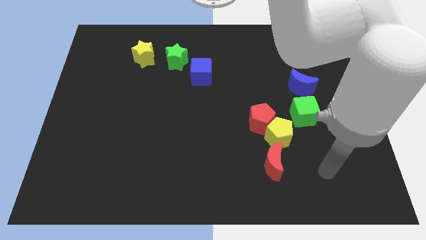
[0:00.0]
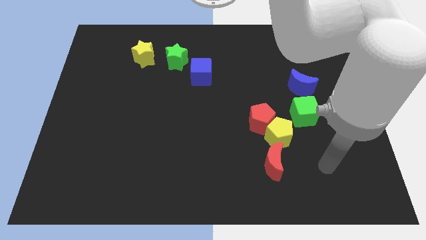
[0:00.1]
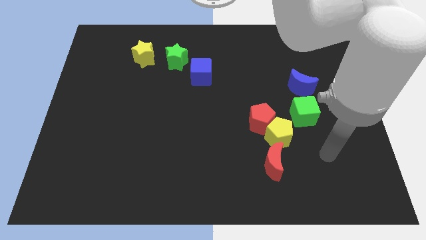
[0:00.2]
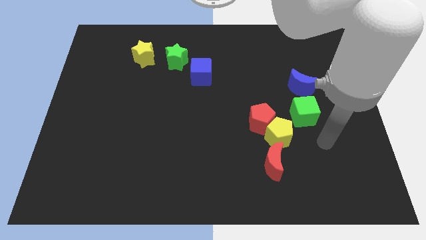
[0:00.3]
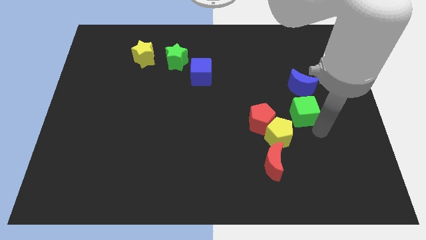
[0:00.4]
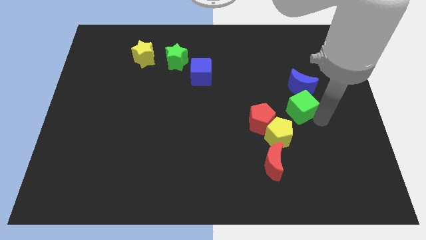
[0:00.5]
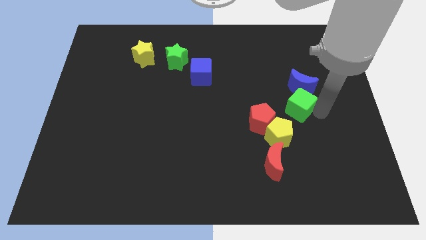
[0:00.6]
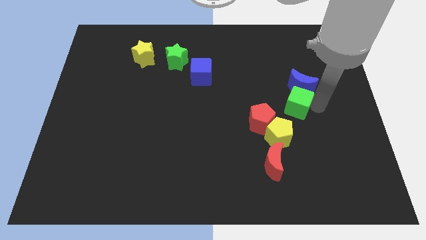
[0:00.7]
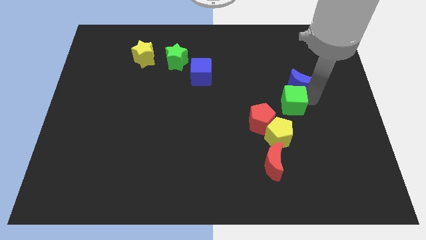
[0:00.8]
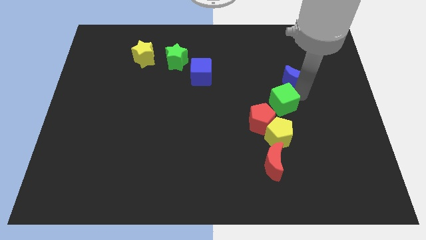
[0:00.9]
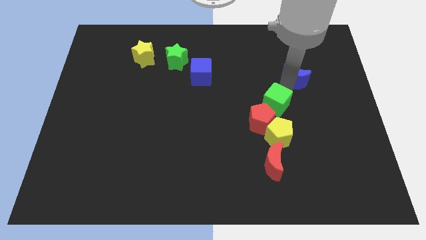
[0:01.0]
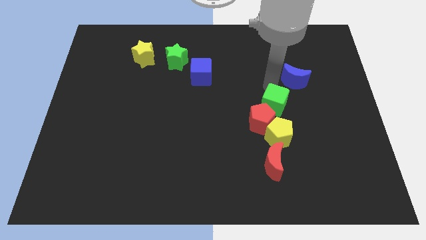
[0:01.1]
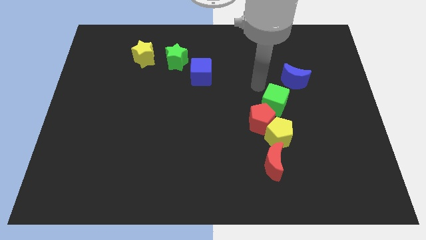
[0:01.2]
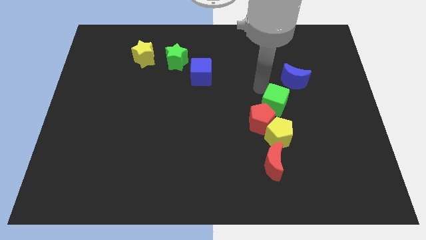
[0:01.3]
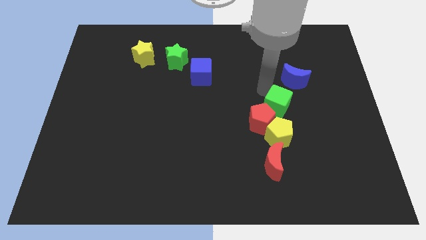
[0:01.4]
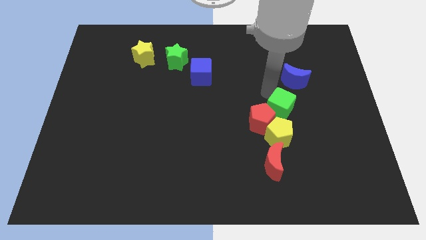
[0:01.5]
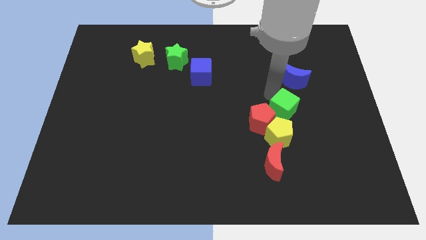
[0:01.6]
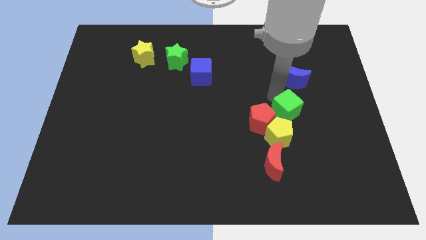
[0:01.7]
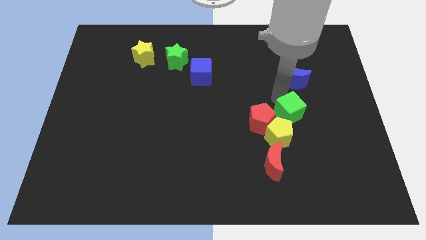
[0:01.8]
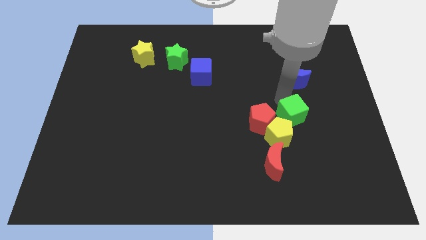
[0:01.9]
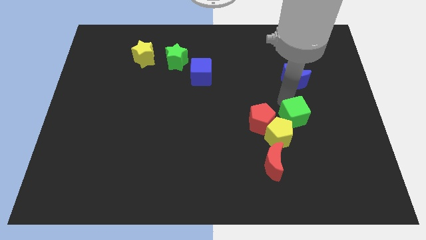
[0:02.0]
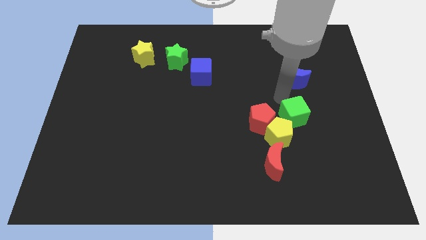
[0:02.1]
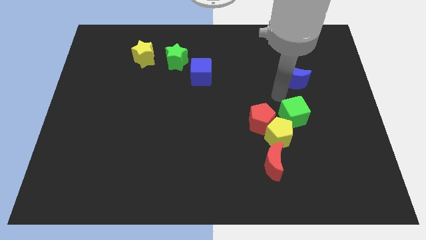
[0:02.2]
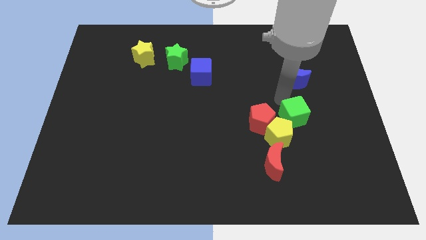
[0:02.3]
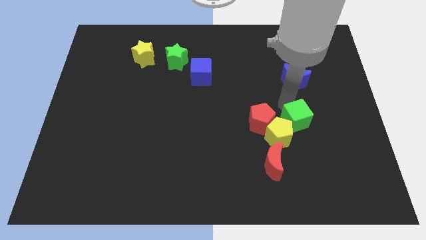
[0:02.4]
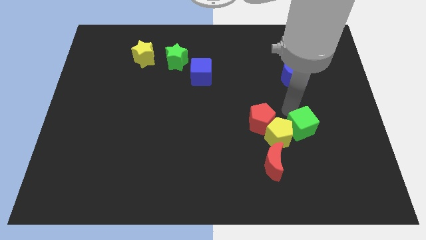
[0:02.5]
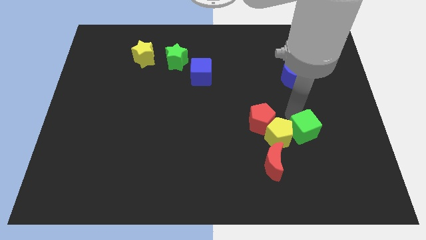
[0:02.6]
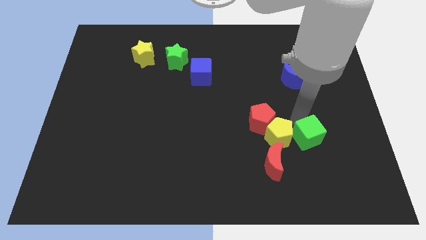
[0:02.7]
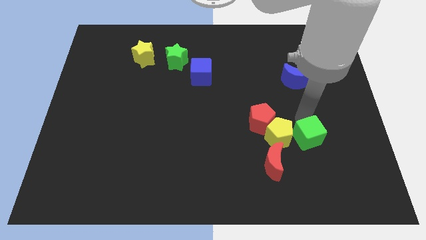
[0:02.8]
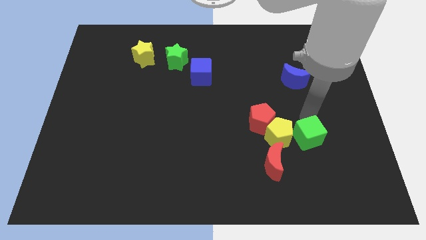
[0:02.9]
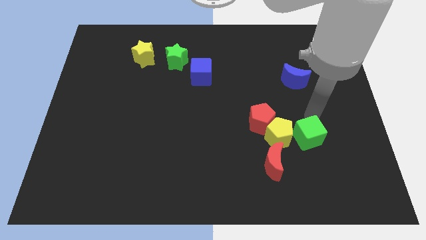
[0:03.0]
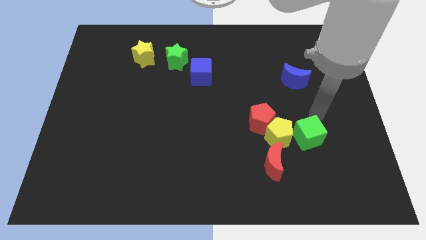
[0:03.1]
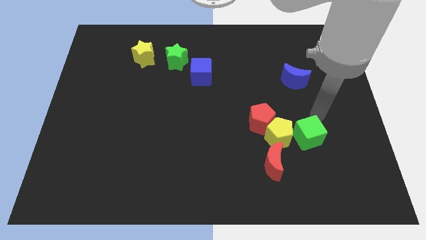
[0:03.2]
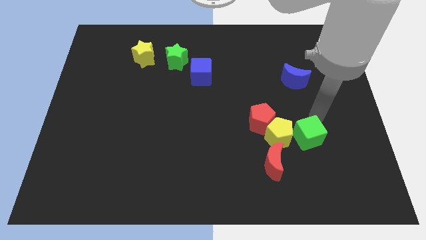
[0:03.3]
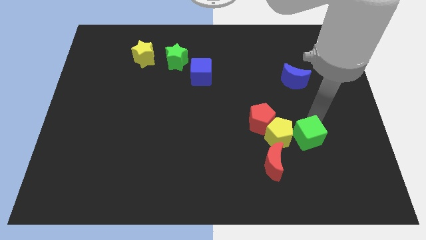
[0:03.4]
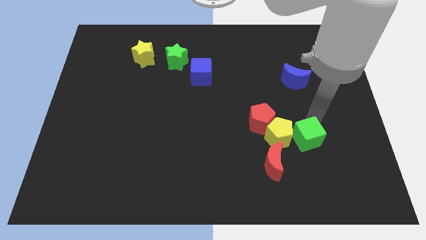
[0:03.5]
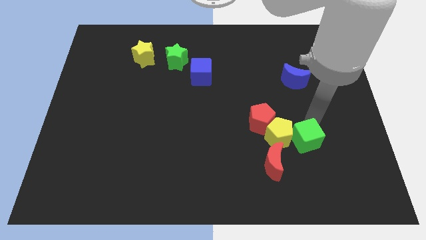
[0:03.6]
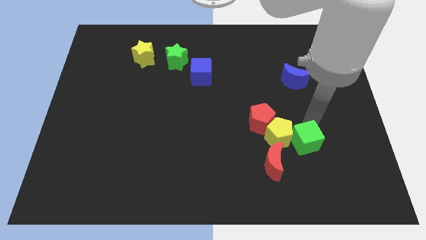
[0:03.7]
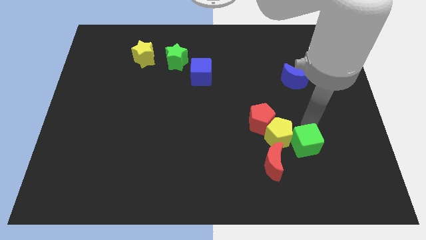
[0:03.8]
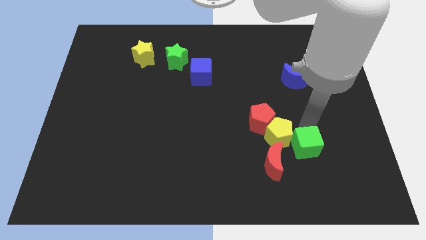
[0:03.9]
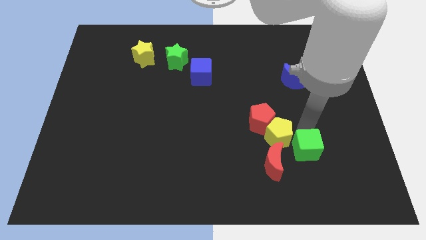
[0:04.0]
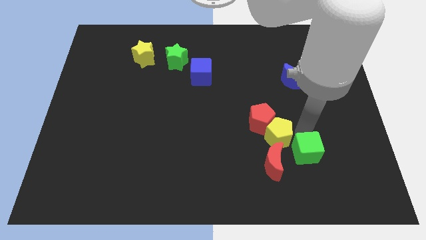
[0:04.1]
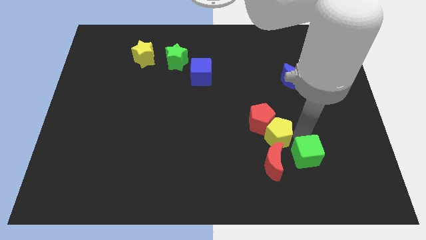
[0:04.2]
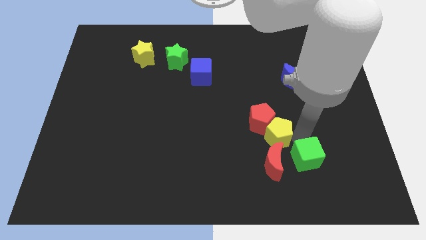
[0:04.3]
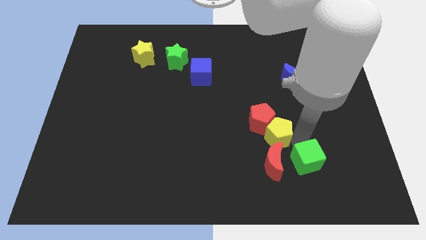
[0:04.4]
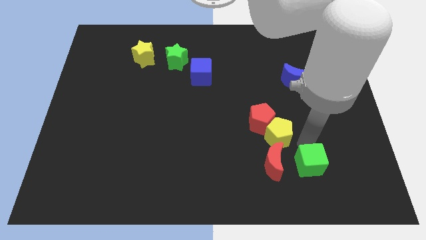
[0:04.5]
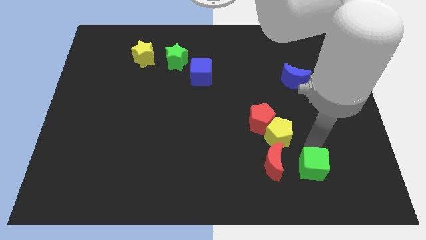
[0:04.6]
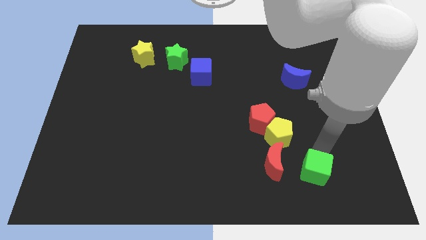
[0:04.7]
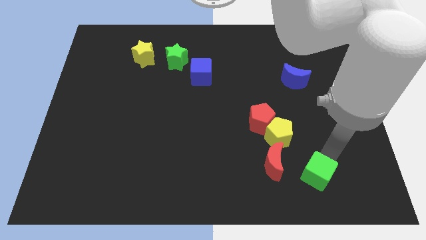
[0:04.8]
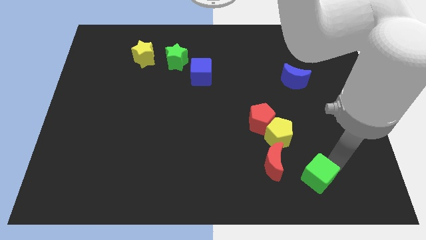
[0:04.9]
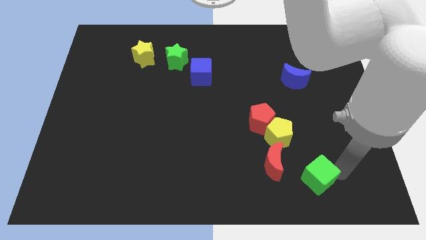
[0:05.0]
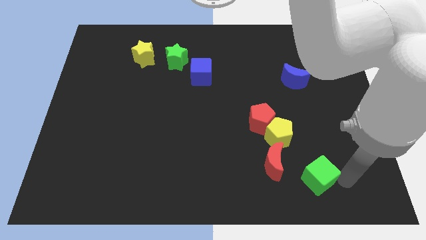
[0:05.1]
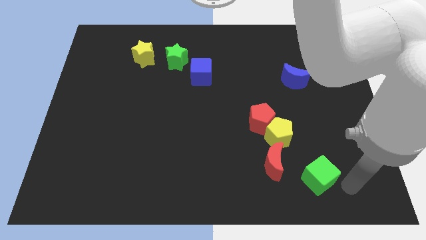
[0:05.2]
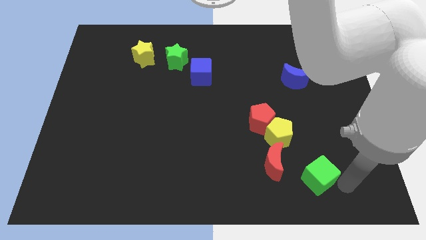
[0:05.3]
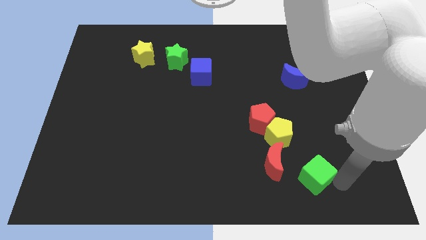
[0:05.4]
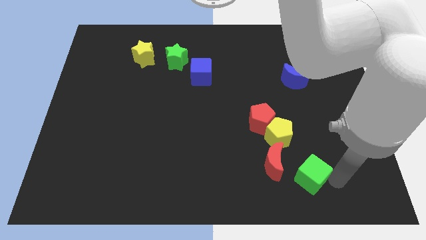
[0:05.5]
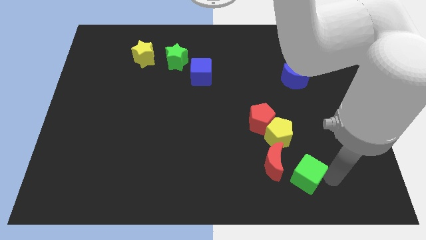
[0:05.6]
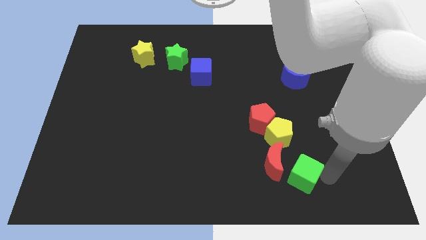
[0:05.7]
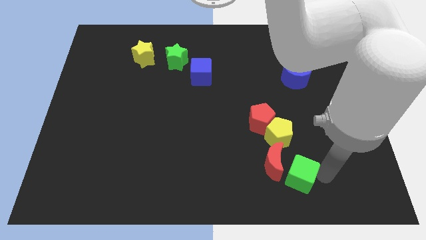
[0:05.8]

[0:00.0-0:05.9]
push the green cube to the red moon

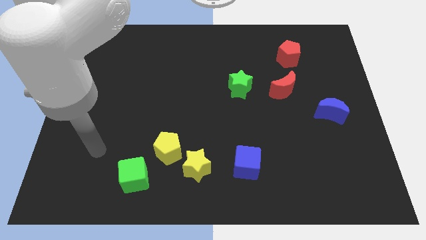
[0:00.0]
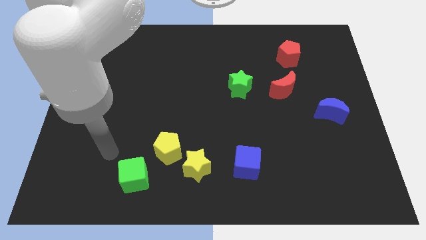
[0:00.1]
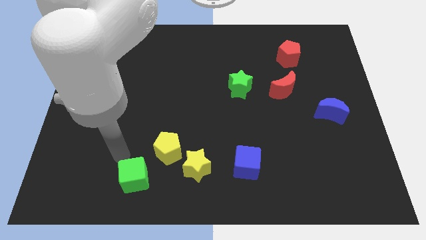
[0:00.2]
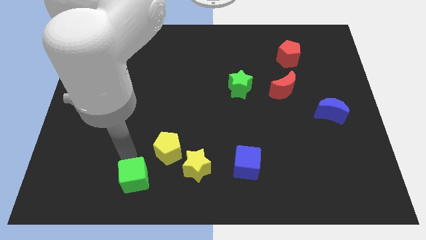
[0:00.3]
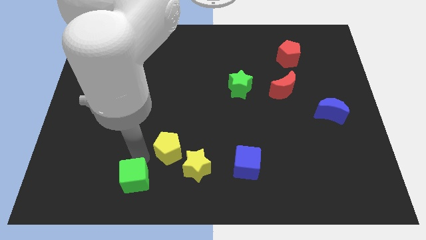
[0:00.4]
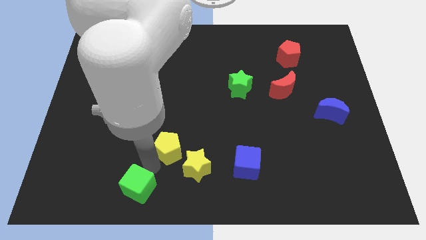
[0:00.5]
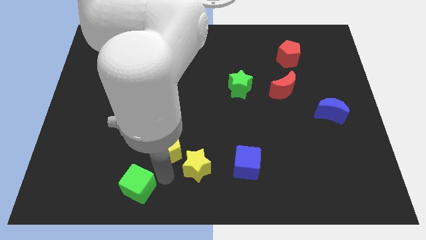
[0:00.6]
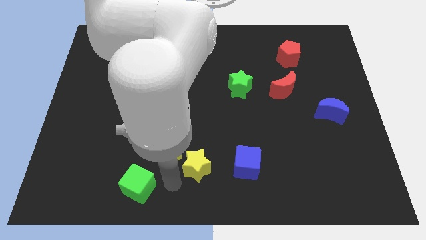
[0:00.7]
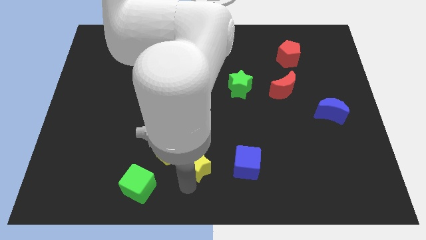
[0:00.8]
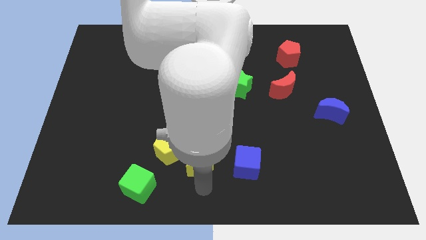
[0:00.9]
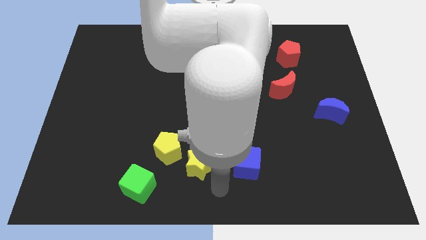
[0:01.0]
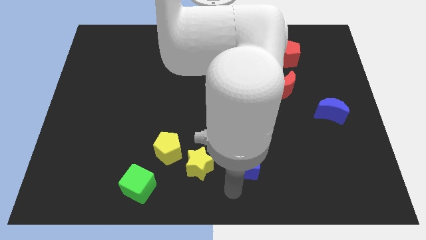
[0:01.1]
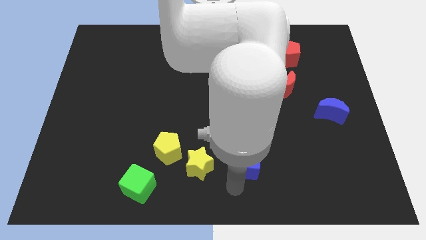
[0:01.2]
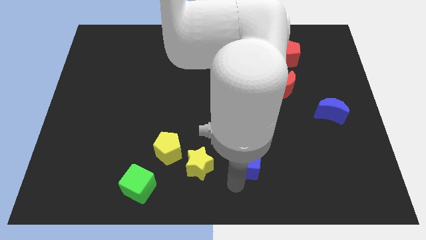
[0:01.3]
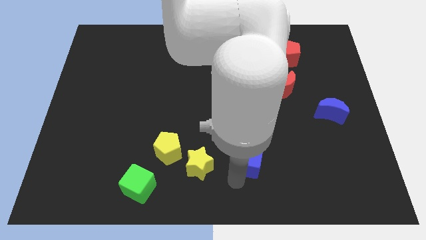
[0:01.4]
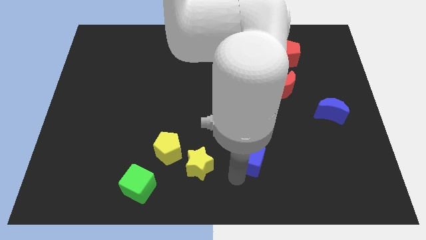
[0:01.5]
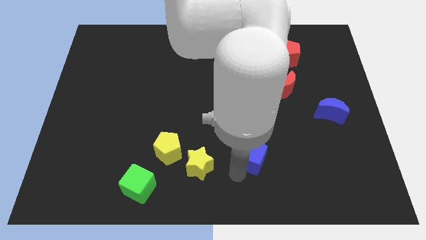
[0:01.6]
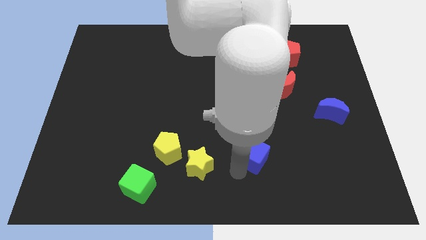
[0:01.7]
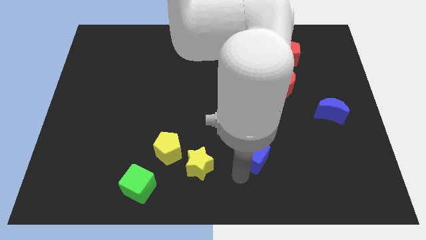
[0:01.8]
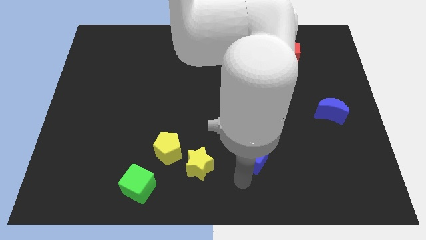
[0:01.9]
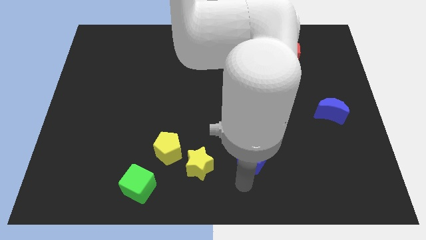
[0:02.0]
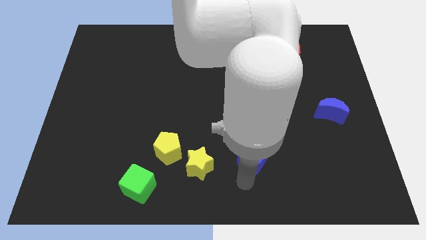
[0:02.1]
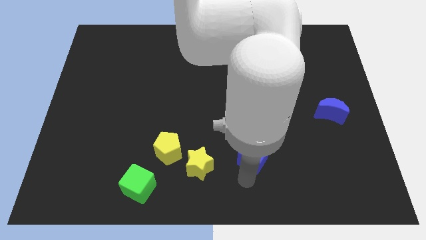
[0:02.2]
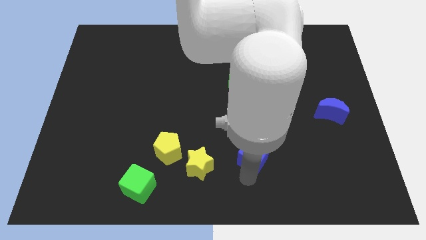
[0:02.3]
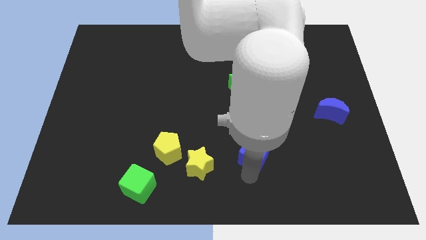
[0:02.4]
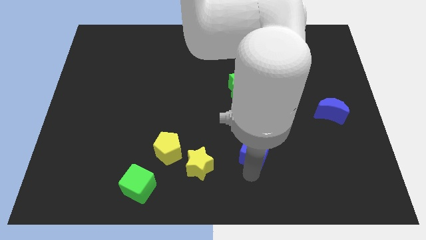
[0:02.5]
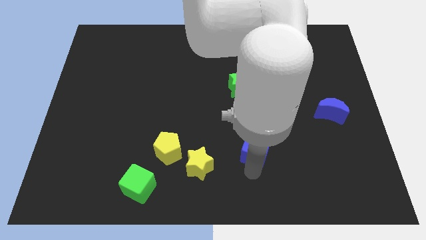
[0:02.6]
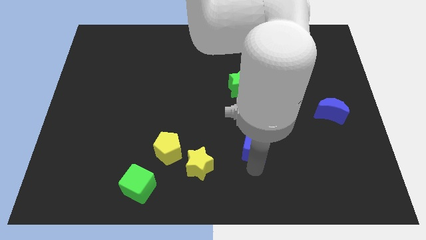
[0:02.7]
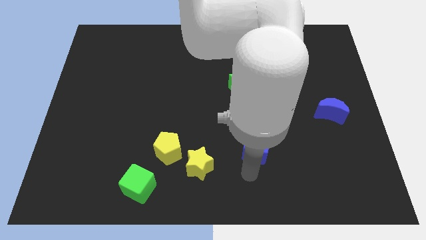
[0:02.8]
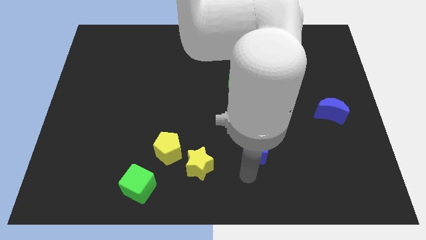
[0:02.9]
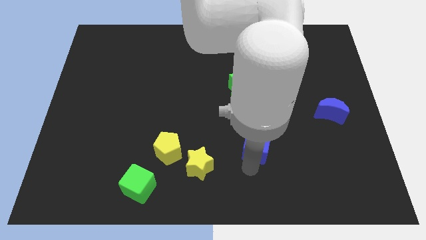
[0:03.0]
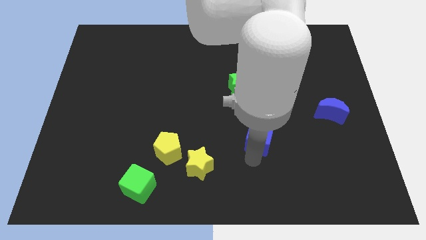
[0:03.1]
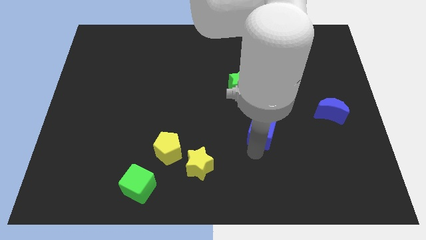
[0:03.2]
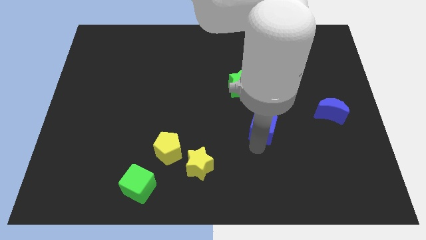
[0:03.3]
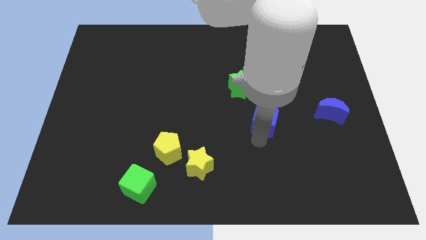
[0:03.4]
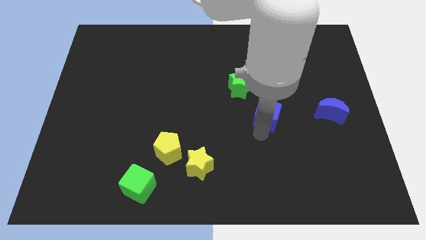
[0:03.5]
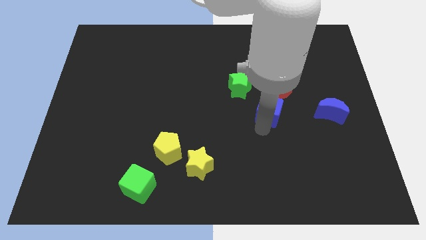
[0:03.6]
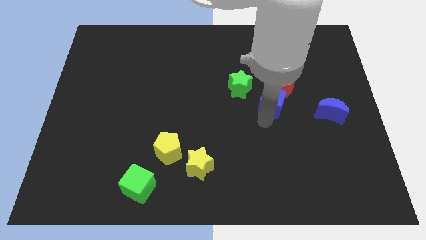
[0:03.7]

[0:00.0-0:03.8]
push the blue cube next to the red moon
